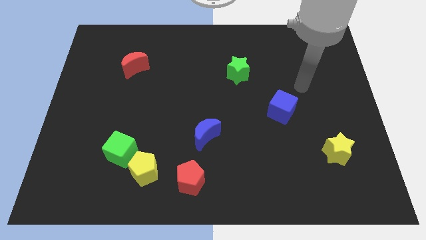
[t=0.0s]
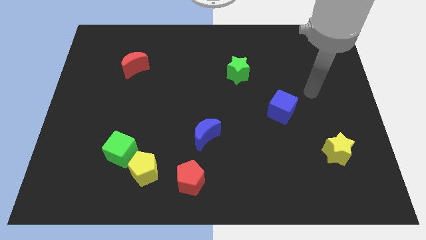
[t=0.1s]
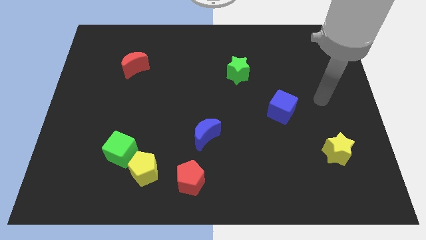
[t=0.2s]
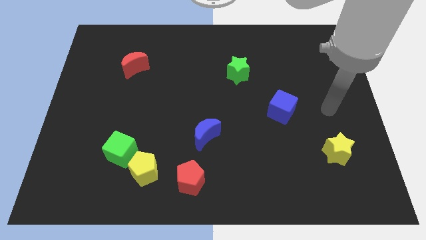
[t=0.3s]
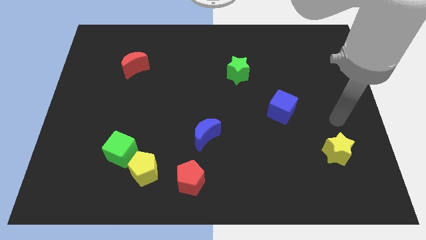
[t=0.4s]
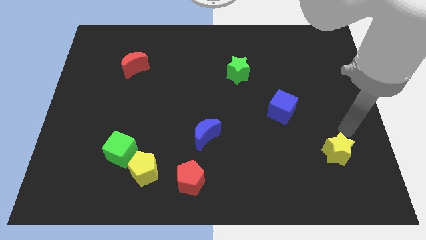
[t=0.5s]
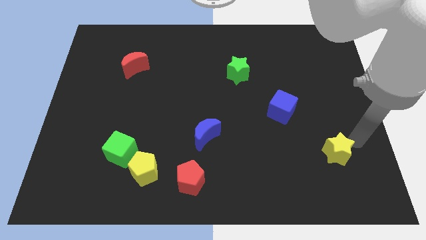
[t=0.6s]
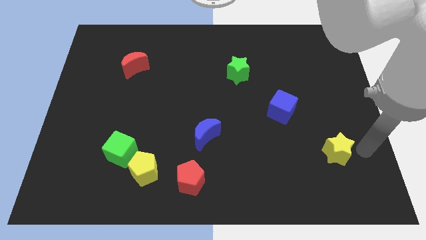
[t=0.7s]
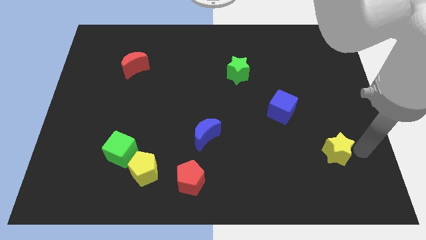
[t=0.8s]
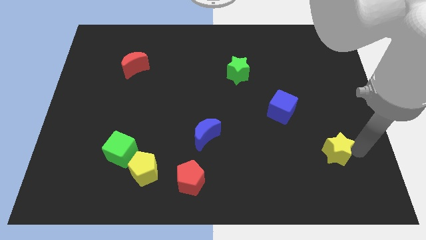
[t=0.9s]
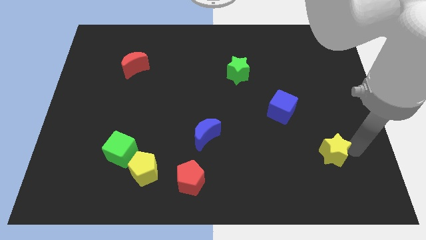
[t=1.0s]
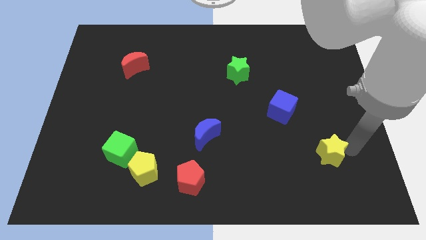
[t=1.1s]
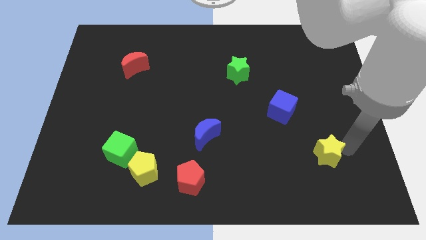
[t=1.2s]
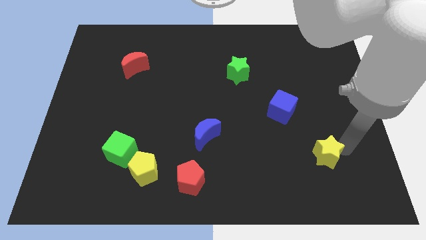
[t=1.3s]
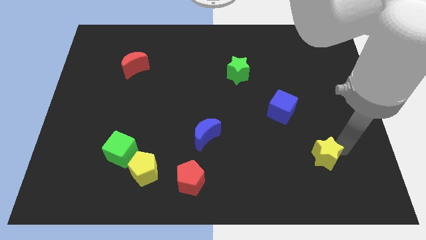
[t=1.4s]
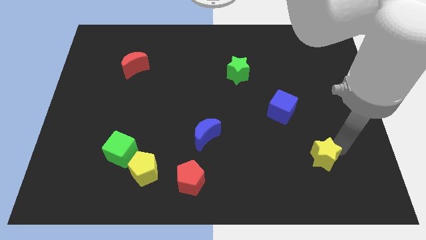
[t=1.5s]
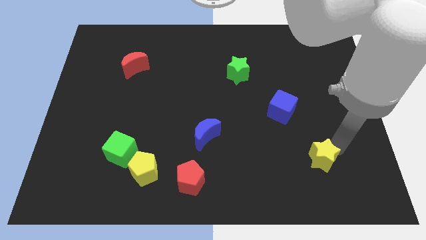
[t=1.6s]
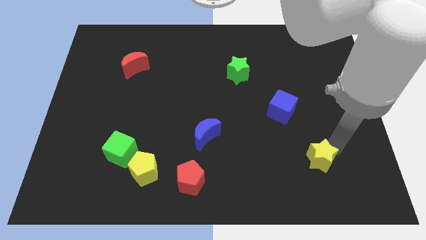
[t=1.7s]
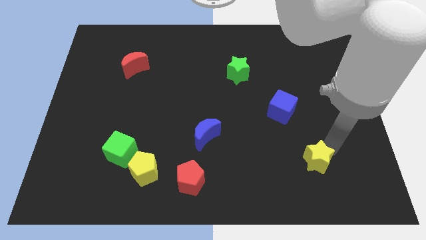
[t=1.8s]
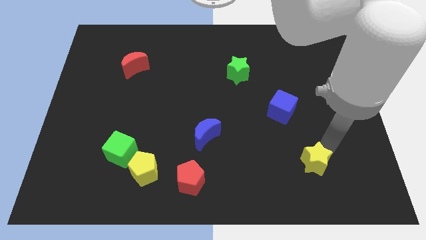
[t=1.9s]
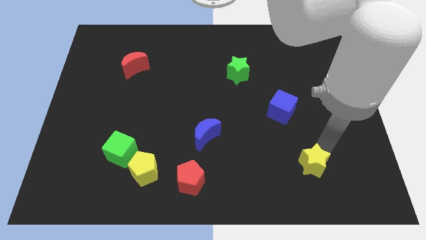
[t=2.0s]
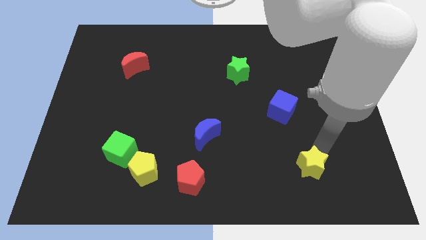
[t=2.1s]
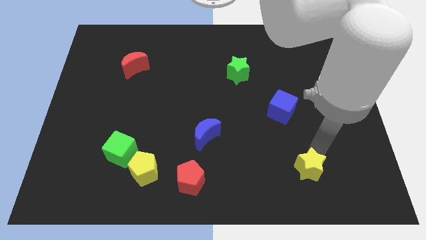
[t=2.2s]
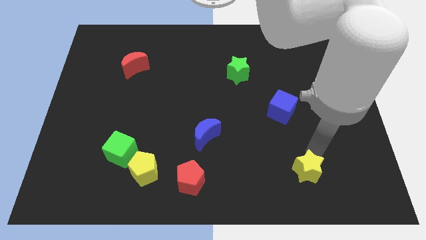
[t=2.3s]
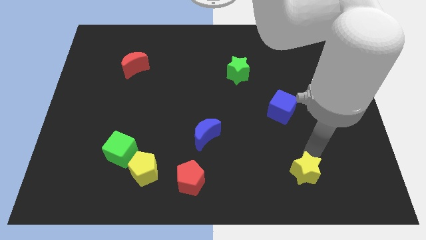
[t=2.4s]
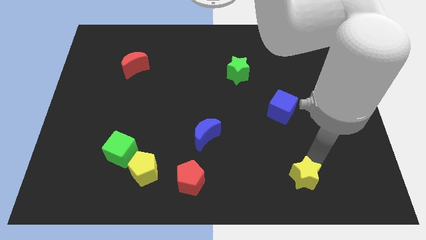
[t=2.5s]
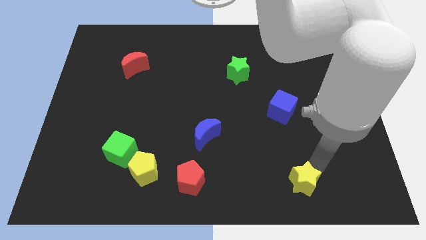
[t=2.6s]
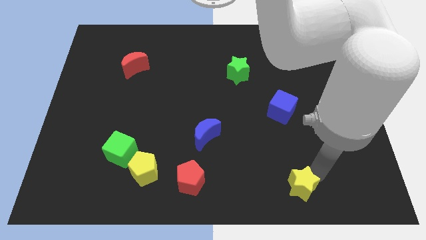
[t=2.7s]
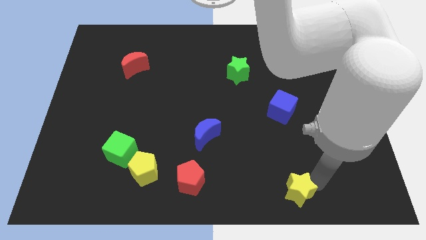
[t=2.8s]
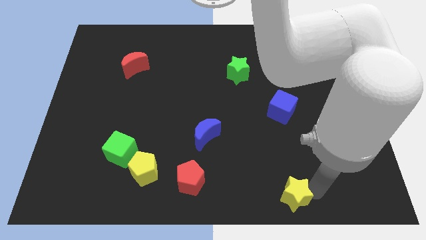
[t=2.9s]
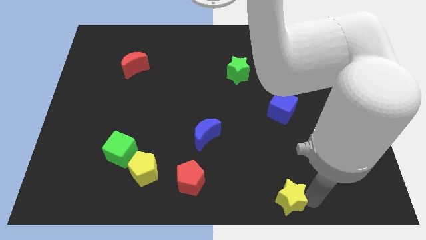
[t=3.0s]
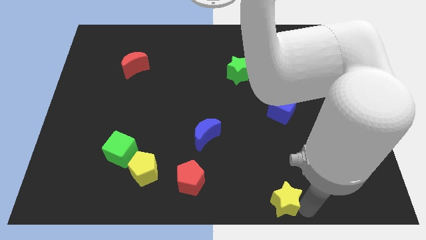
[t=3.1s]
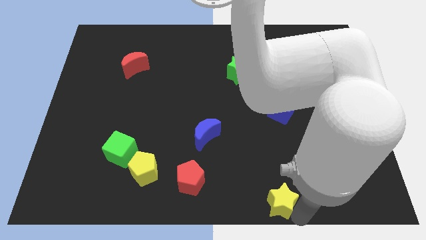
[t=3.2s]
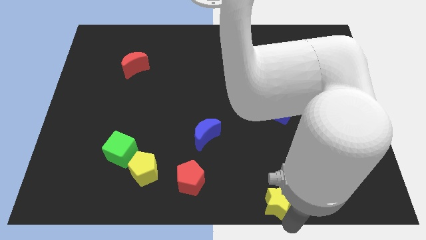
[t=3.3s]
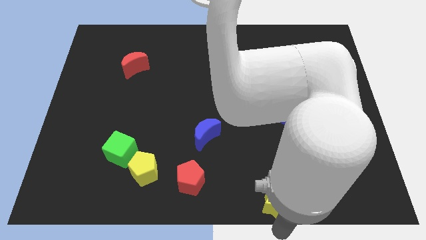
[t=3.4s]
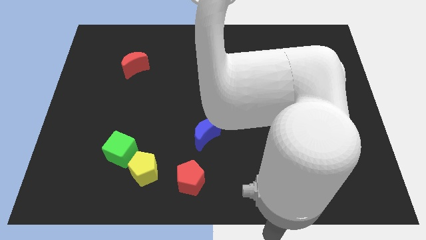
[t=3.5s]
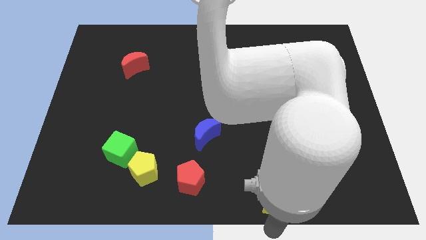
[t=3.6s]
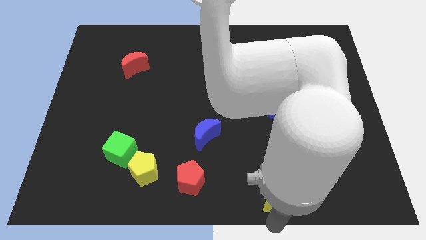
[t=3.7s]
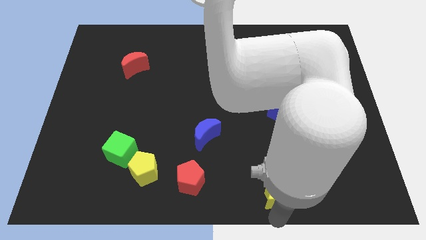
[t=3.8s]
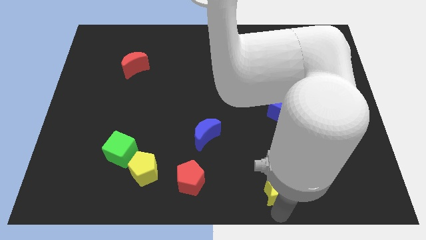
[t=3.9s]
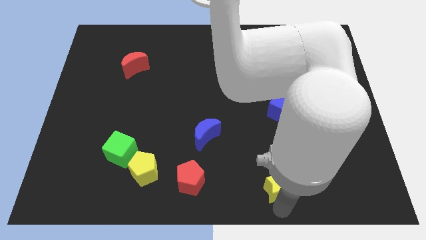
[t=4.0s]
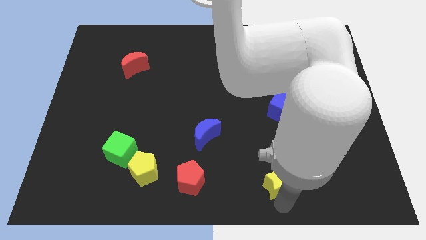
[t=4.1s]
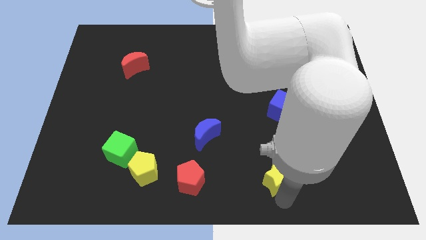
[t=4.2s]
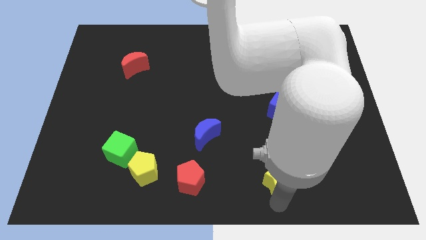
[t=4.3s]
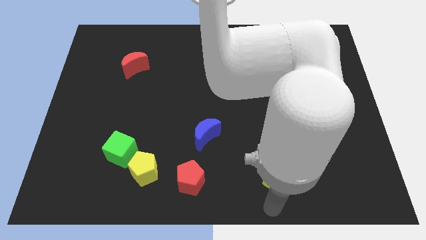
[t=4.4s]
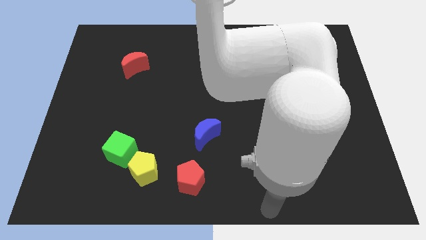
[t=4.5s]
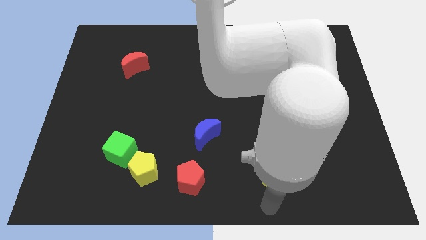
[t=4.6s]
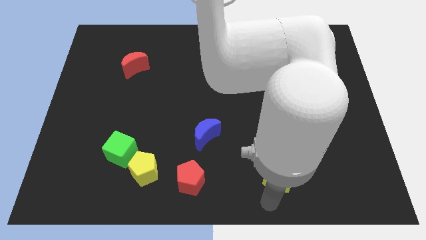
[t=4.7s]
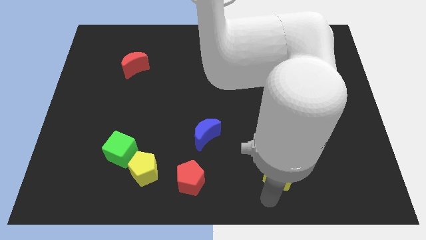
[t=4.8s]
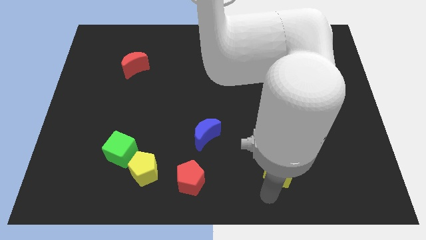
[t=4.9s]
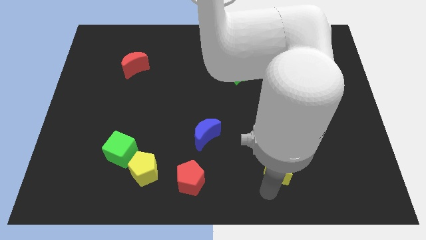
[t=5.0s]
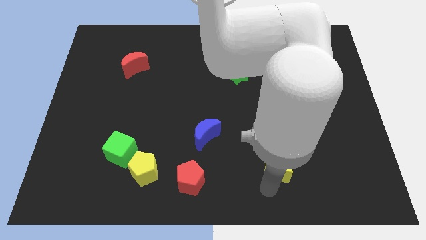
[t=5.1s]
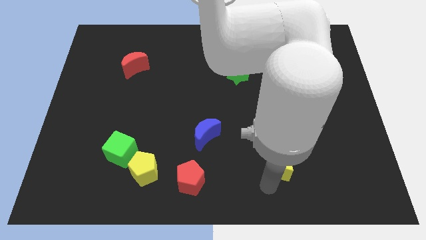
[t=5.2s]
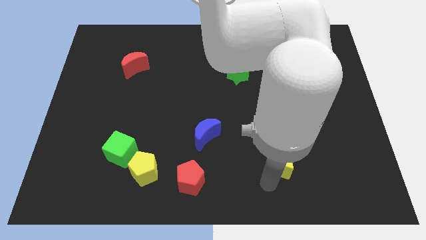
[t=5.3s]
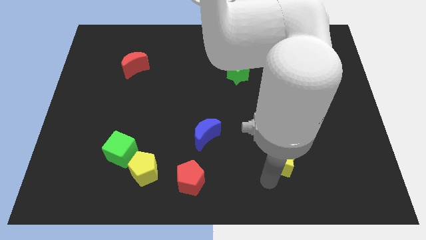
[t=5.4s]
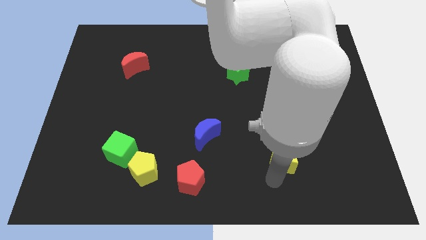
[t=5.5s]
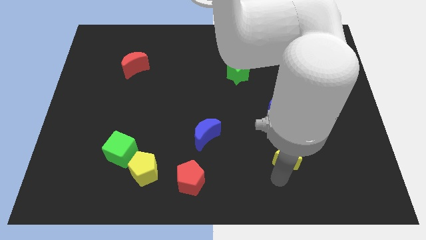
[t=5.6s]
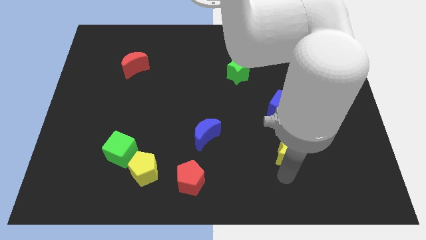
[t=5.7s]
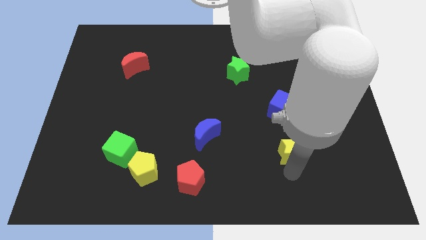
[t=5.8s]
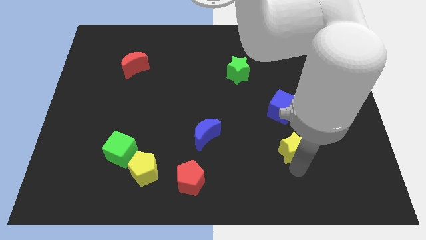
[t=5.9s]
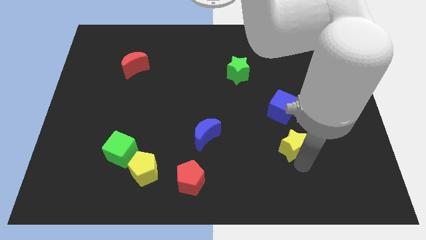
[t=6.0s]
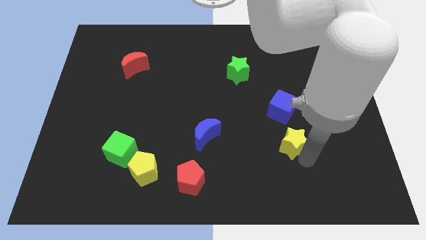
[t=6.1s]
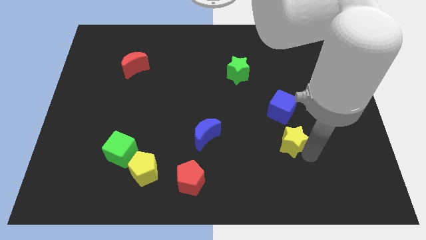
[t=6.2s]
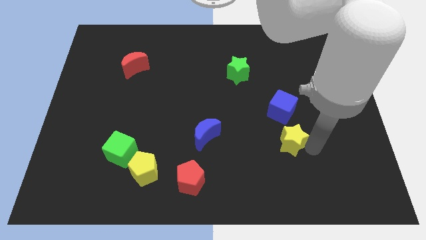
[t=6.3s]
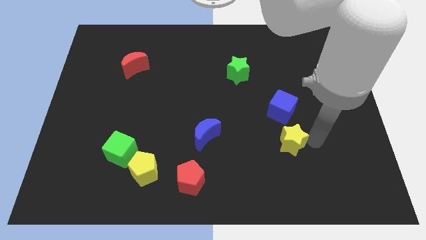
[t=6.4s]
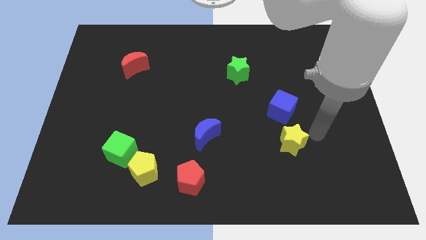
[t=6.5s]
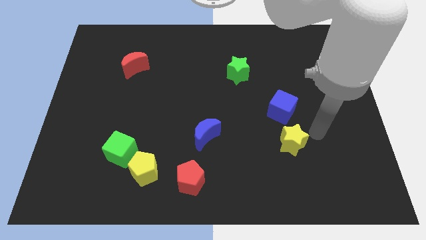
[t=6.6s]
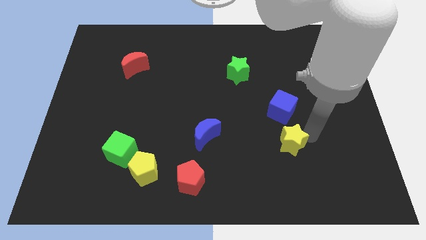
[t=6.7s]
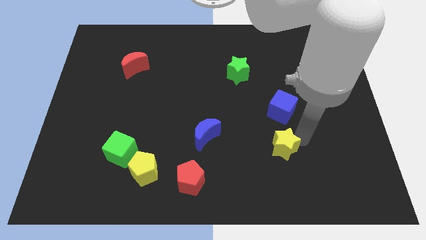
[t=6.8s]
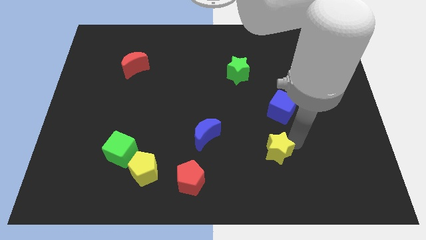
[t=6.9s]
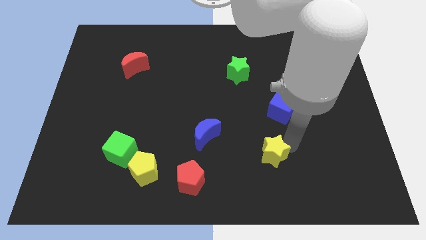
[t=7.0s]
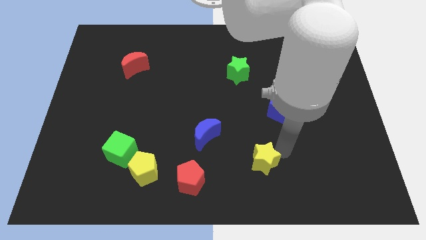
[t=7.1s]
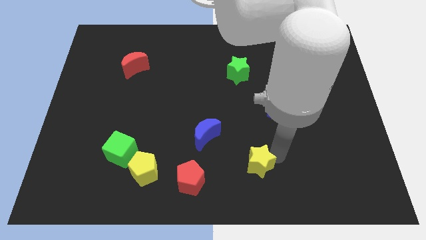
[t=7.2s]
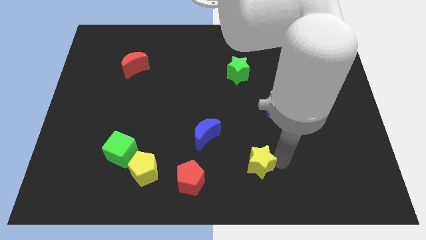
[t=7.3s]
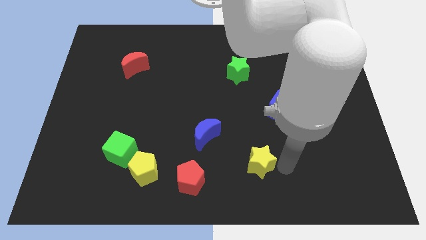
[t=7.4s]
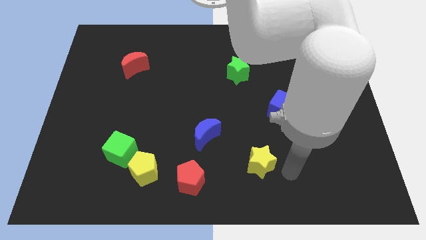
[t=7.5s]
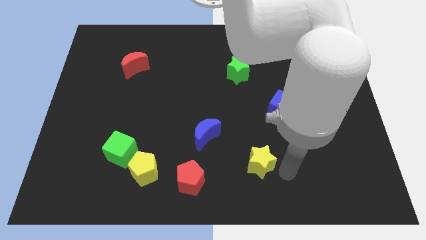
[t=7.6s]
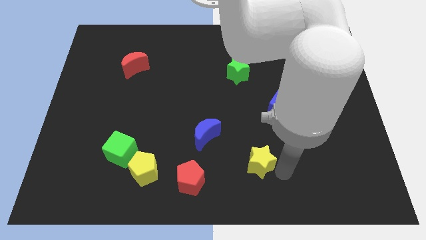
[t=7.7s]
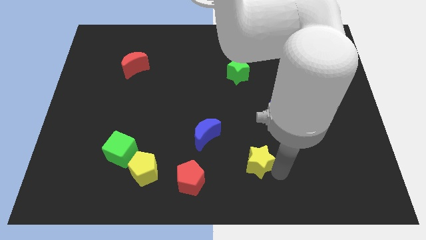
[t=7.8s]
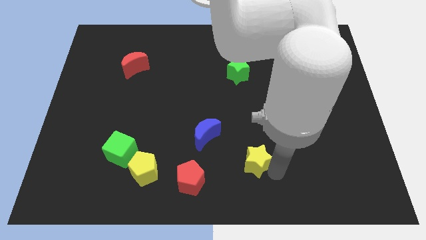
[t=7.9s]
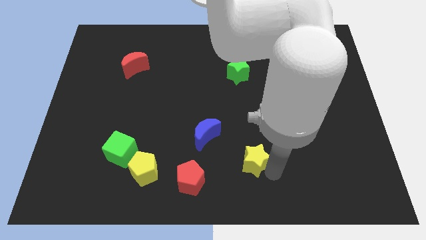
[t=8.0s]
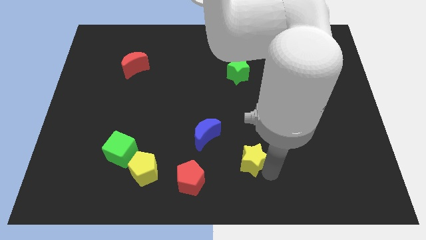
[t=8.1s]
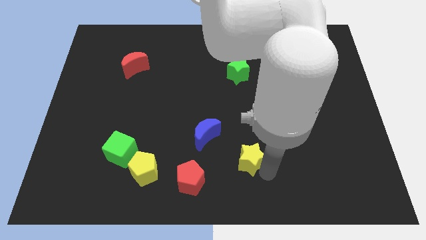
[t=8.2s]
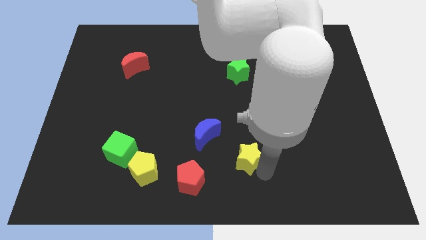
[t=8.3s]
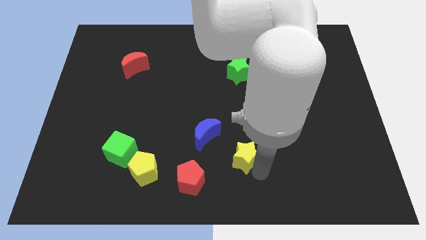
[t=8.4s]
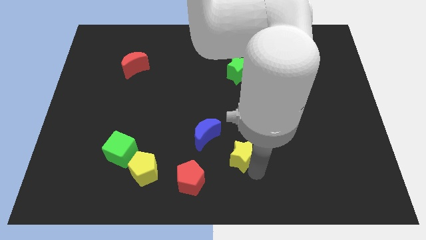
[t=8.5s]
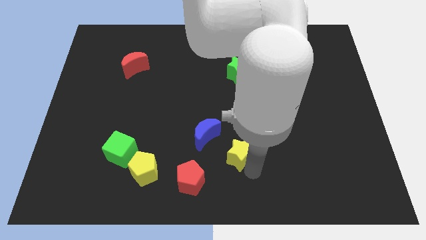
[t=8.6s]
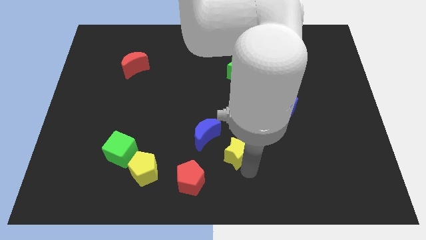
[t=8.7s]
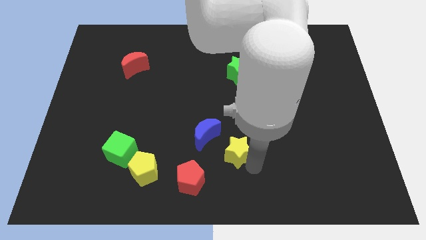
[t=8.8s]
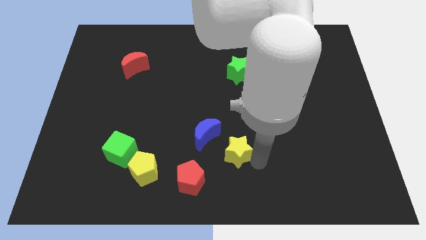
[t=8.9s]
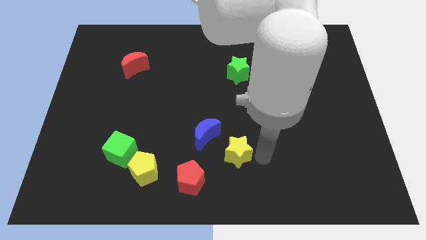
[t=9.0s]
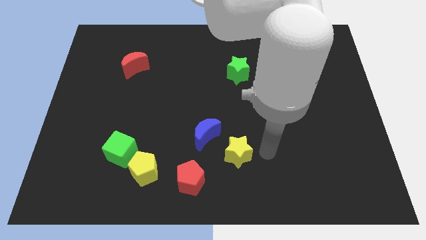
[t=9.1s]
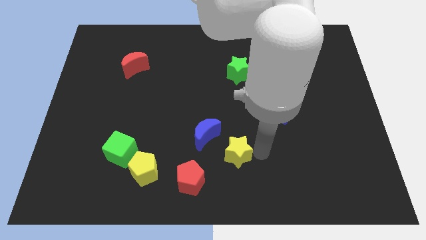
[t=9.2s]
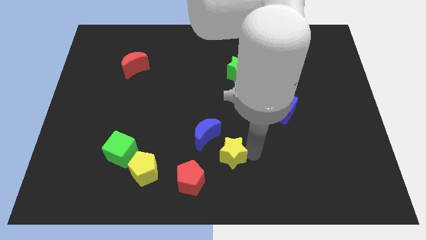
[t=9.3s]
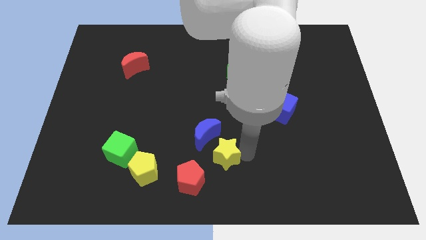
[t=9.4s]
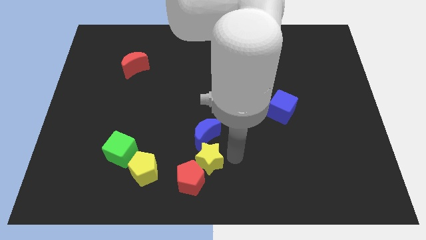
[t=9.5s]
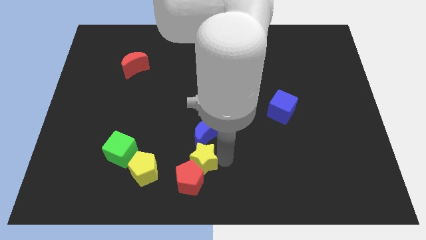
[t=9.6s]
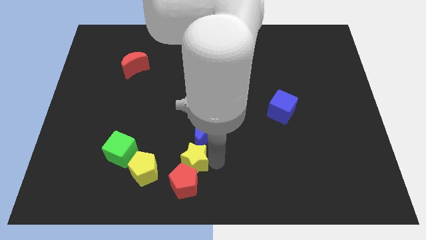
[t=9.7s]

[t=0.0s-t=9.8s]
move the yellow star to the right side of the green cube
